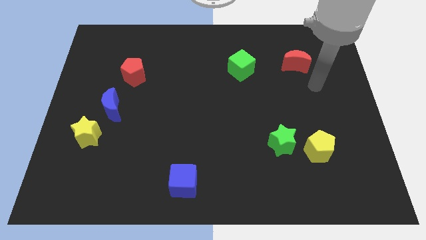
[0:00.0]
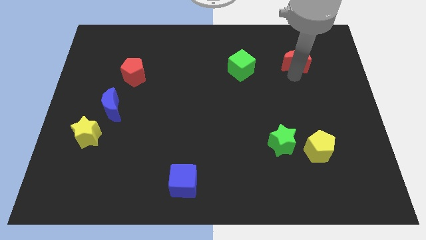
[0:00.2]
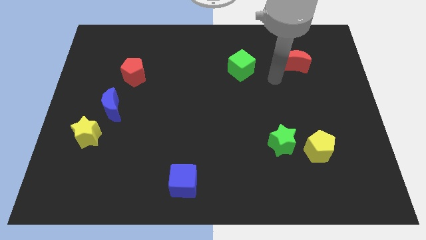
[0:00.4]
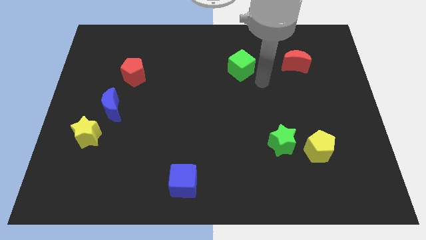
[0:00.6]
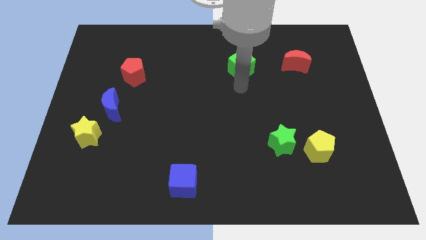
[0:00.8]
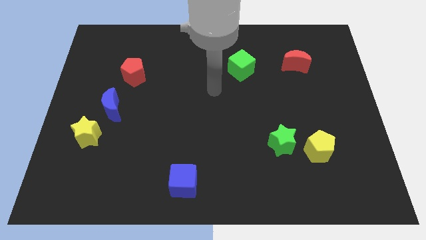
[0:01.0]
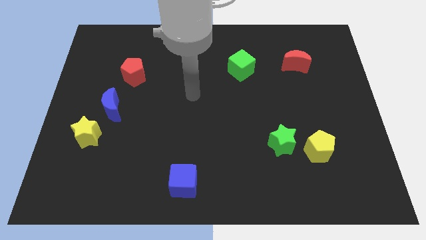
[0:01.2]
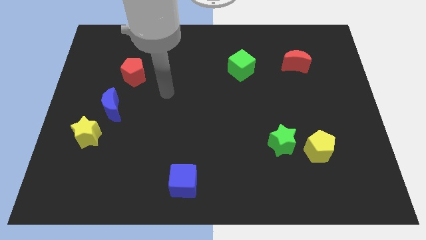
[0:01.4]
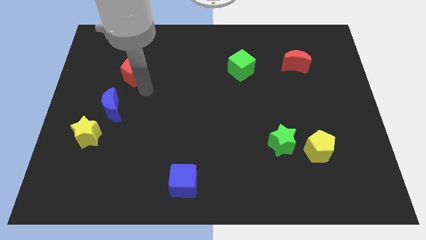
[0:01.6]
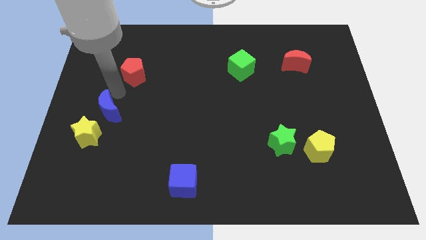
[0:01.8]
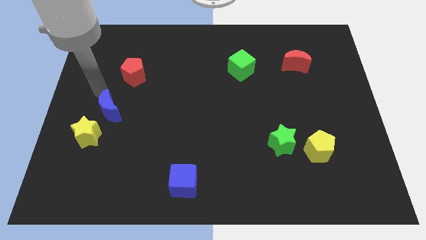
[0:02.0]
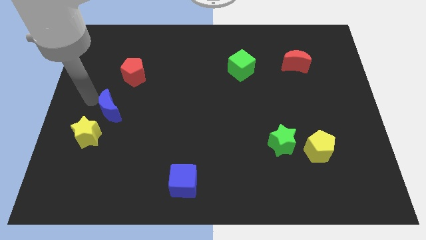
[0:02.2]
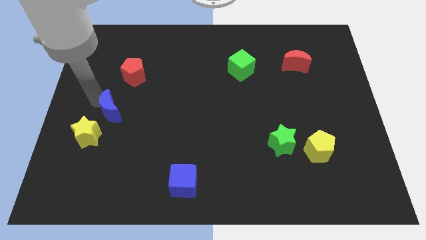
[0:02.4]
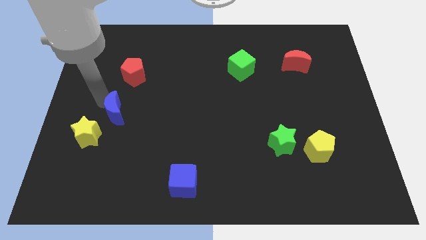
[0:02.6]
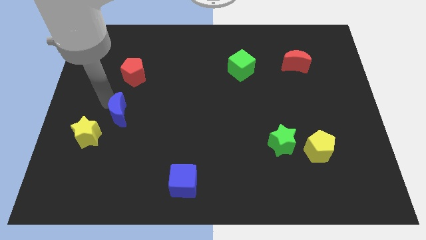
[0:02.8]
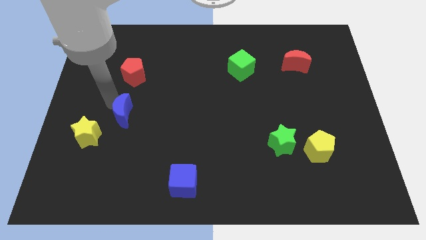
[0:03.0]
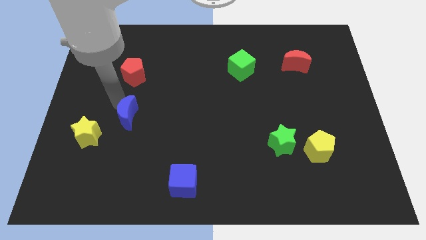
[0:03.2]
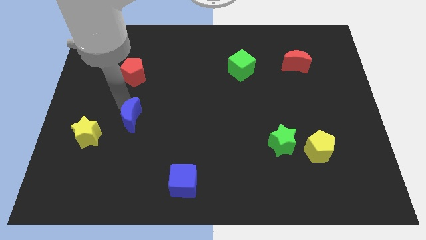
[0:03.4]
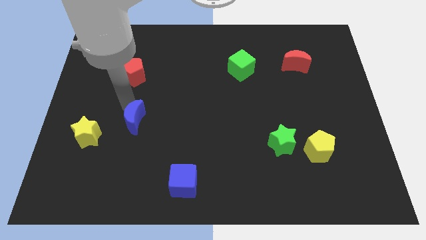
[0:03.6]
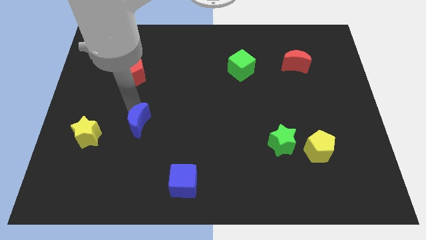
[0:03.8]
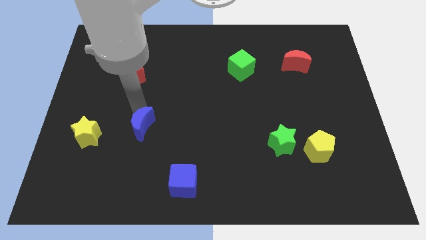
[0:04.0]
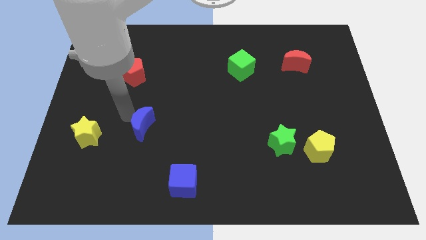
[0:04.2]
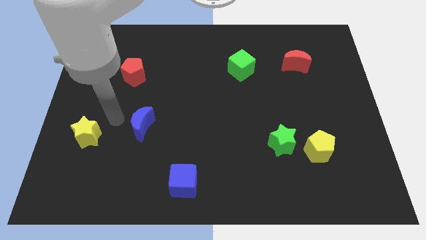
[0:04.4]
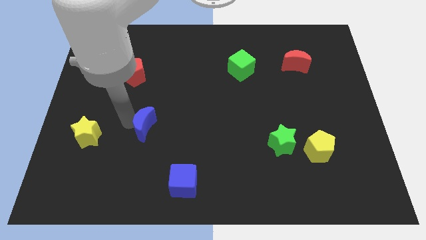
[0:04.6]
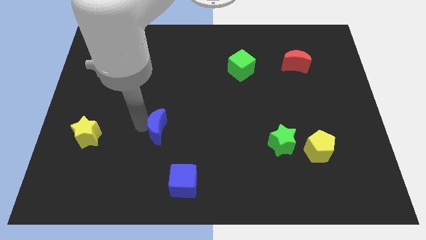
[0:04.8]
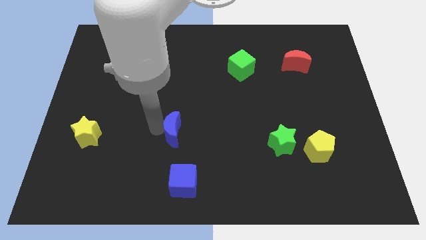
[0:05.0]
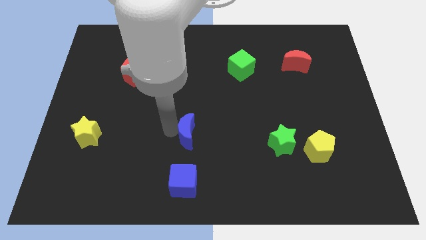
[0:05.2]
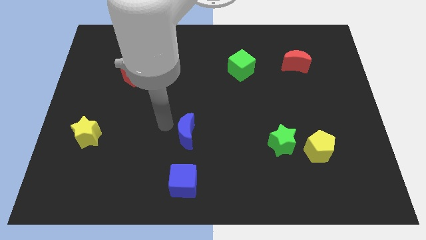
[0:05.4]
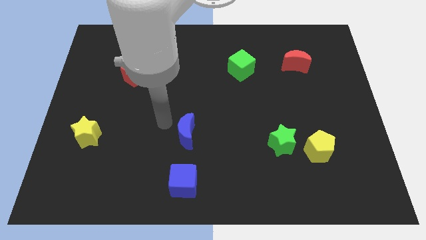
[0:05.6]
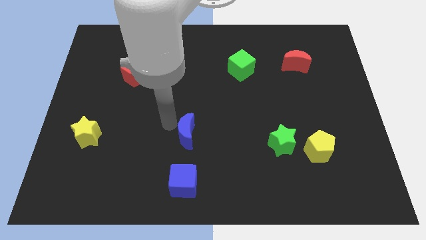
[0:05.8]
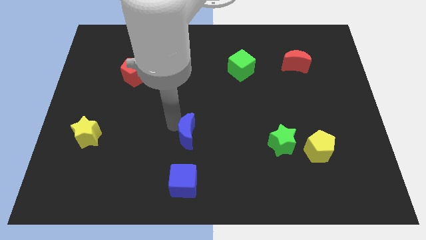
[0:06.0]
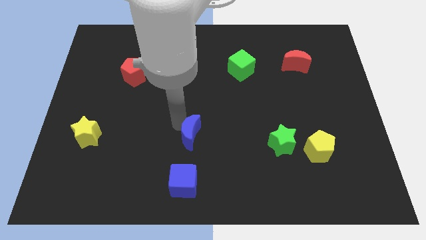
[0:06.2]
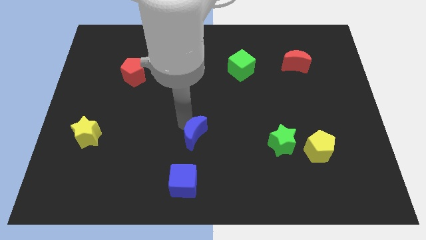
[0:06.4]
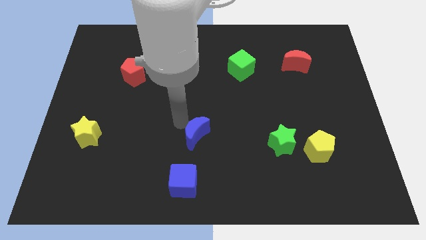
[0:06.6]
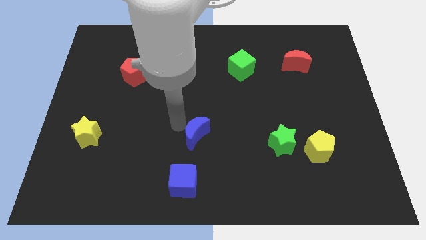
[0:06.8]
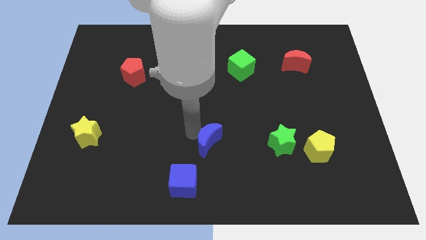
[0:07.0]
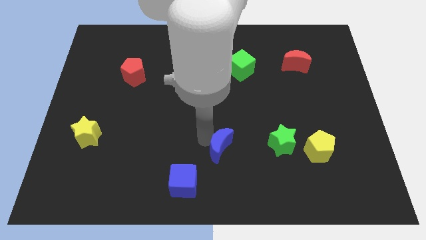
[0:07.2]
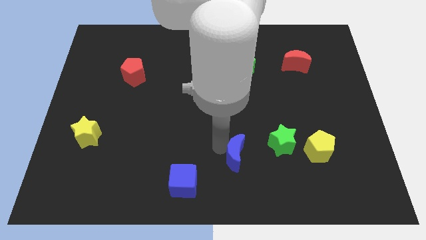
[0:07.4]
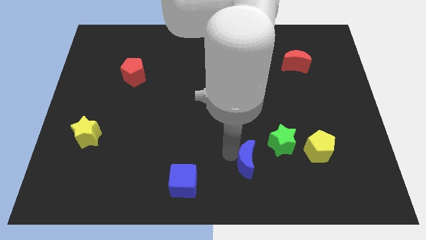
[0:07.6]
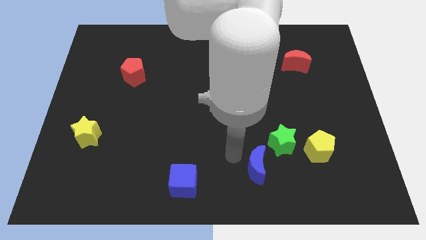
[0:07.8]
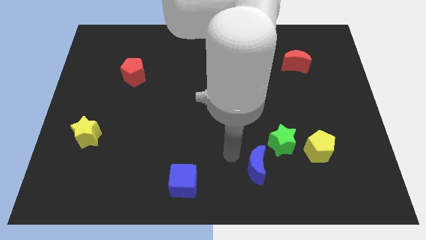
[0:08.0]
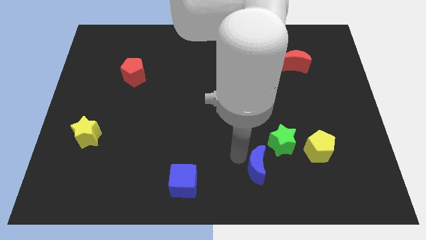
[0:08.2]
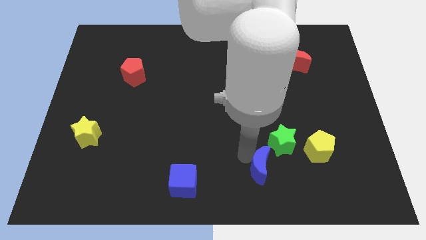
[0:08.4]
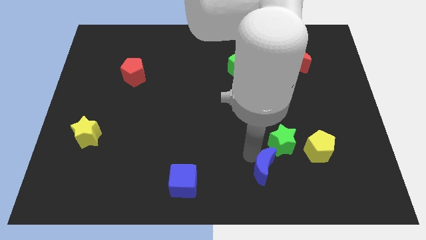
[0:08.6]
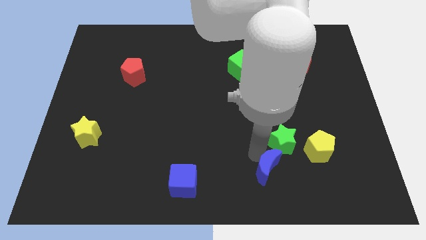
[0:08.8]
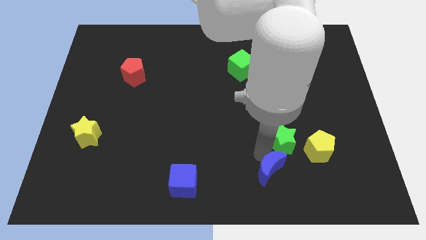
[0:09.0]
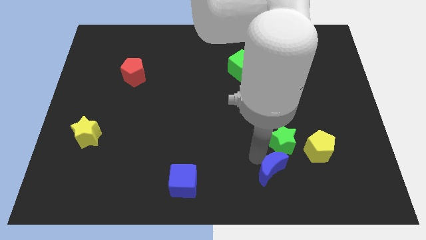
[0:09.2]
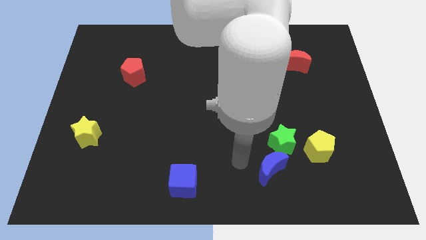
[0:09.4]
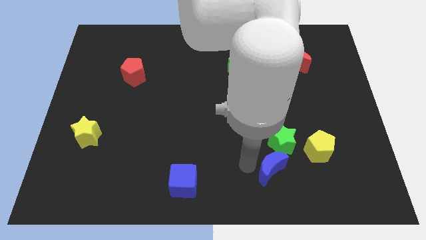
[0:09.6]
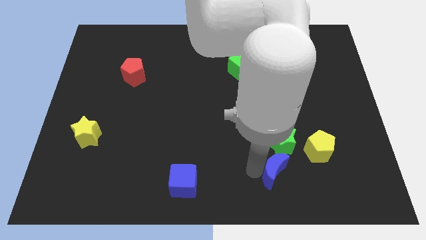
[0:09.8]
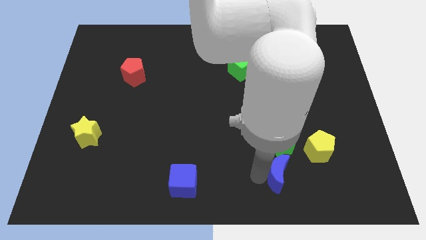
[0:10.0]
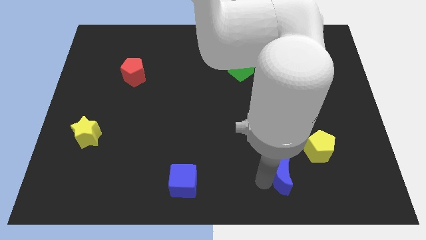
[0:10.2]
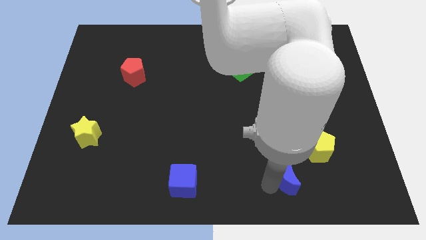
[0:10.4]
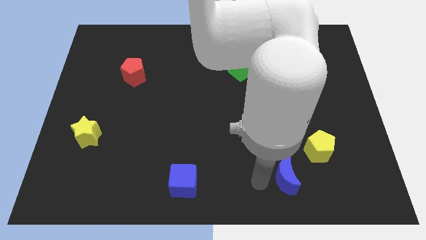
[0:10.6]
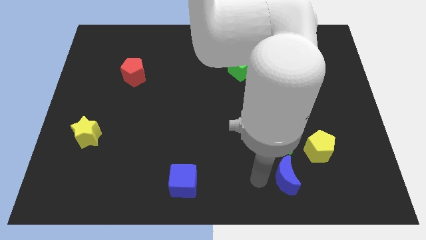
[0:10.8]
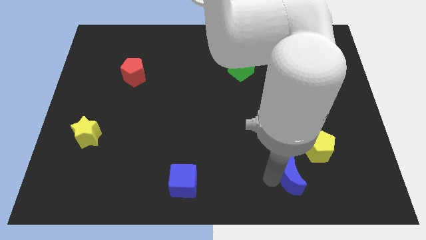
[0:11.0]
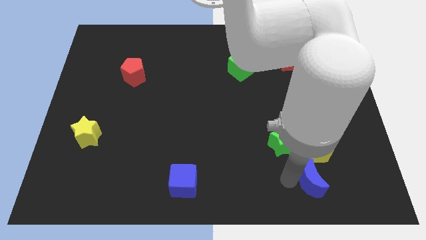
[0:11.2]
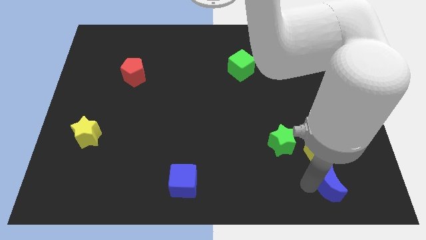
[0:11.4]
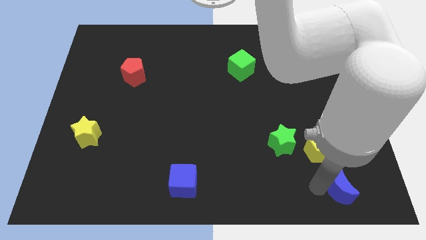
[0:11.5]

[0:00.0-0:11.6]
move the blue moon to the bottom right side of the yellow pentagon

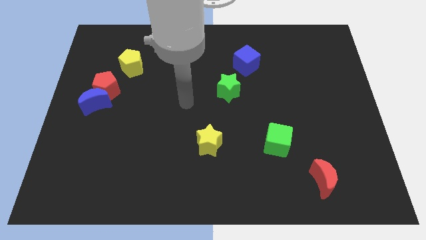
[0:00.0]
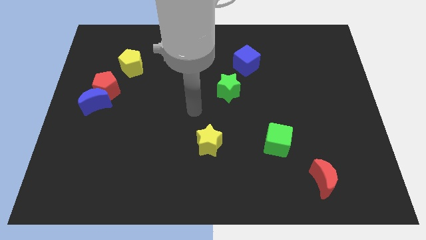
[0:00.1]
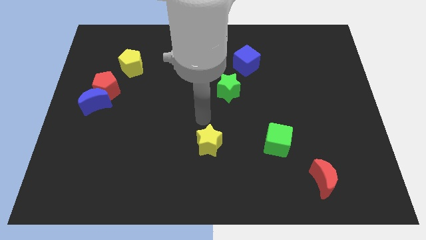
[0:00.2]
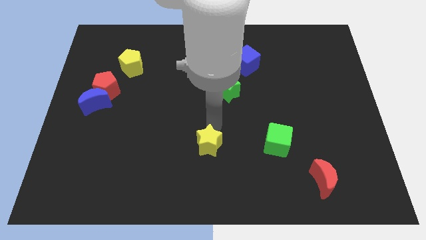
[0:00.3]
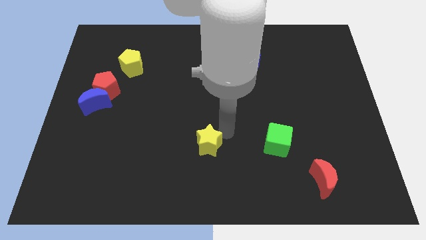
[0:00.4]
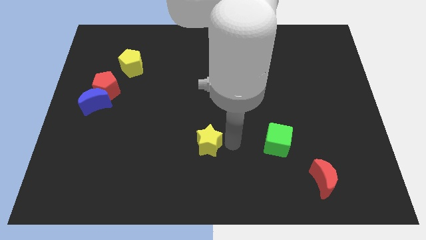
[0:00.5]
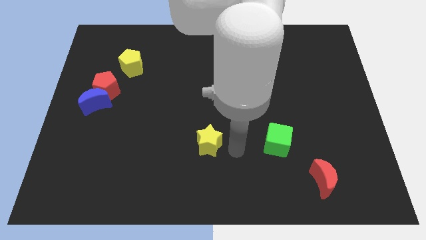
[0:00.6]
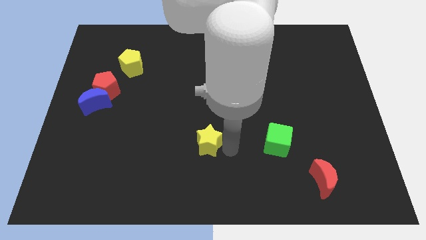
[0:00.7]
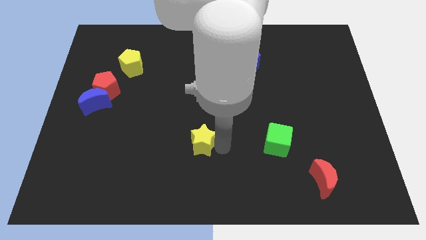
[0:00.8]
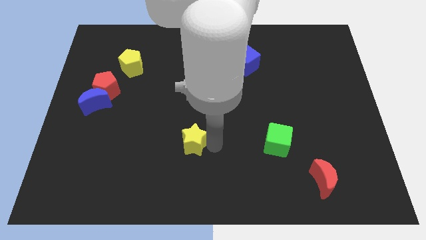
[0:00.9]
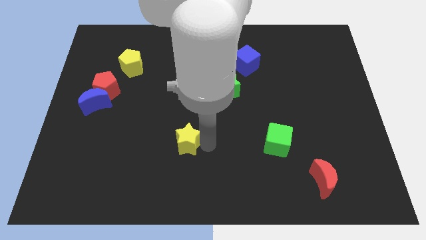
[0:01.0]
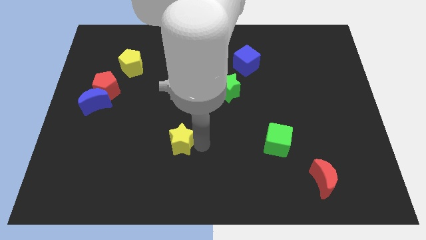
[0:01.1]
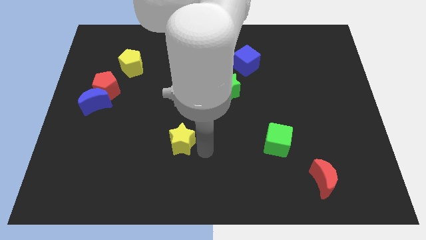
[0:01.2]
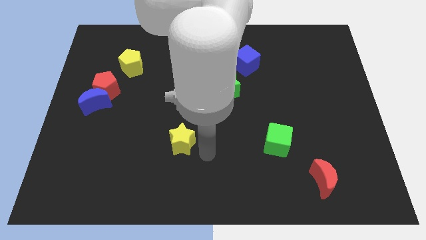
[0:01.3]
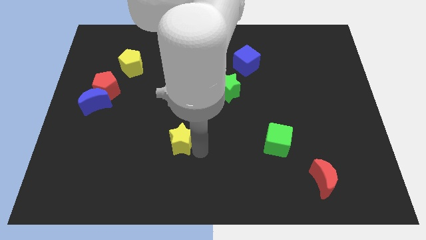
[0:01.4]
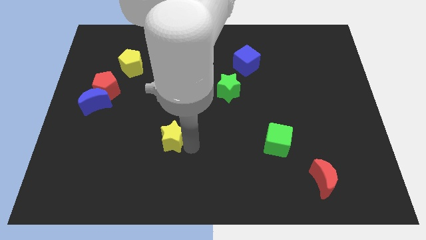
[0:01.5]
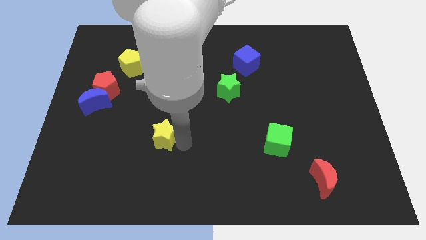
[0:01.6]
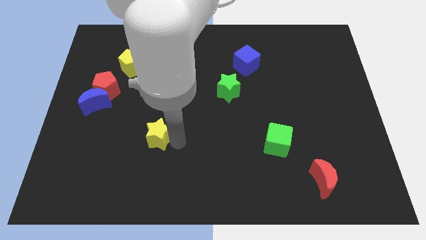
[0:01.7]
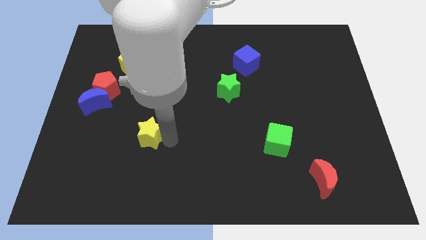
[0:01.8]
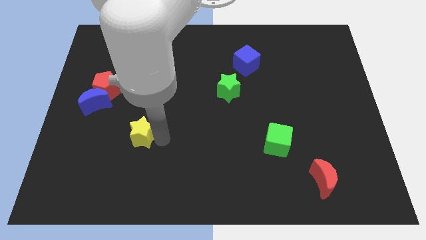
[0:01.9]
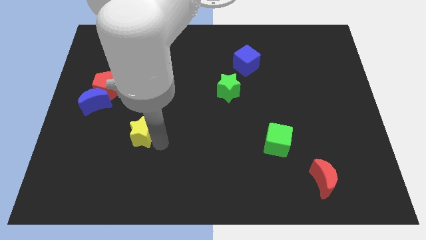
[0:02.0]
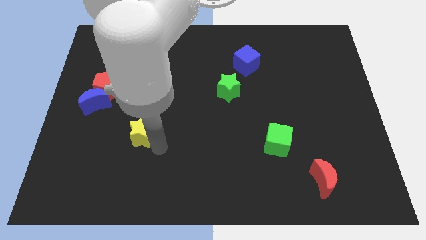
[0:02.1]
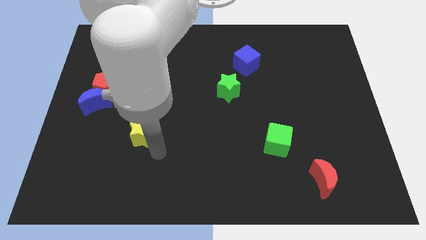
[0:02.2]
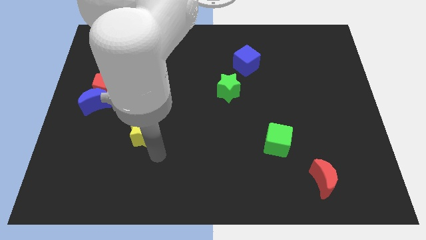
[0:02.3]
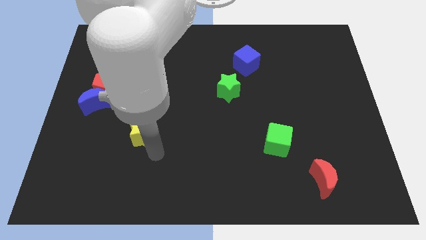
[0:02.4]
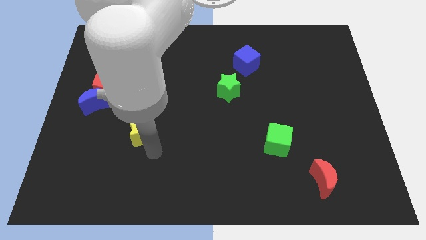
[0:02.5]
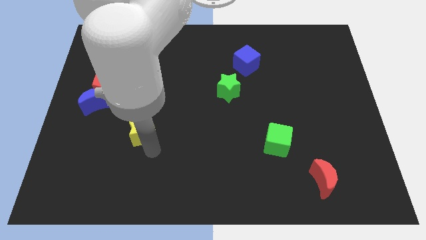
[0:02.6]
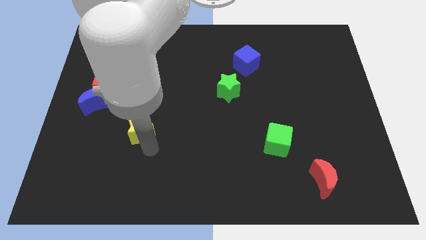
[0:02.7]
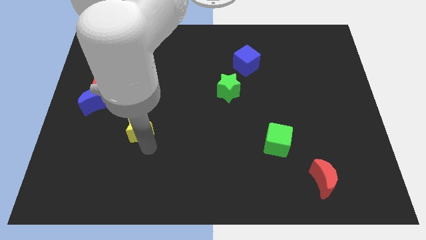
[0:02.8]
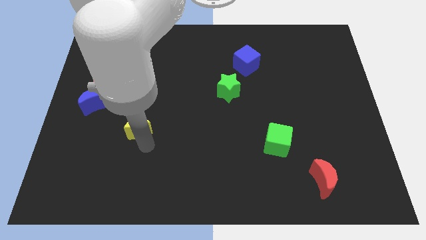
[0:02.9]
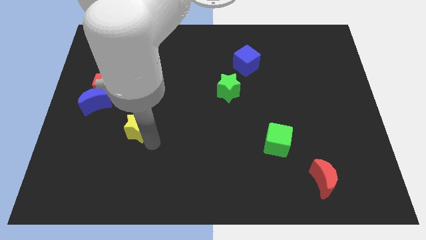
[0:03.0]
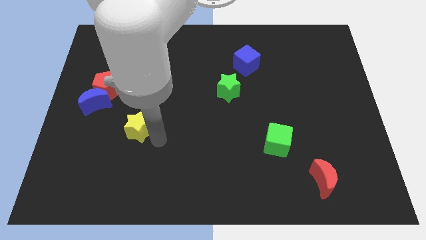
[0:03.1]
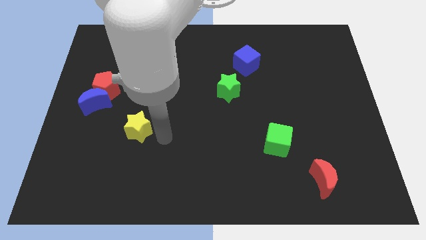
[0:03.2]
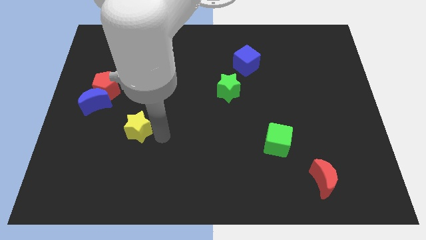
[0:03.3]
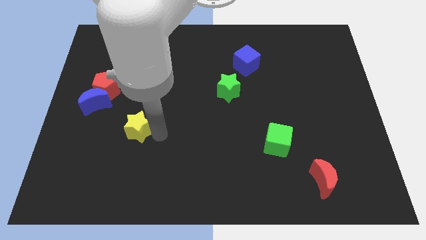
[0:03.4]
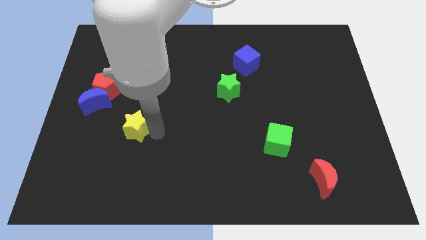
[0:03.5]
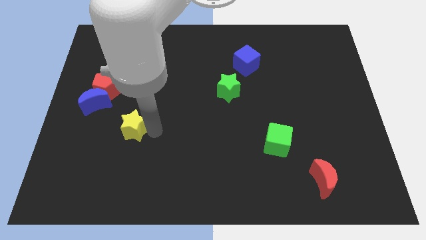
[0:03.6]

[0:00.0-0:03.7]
put the yellow star diagonally down and to the right of the blue moon
